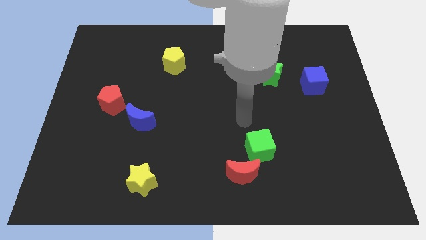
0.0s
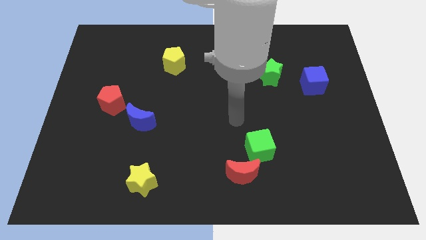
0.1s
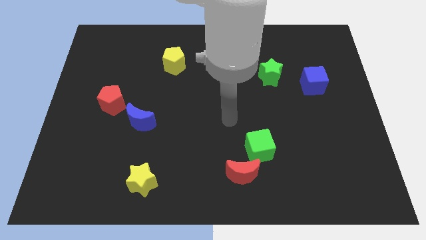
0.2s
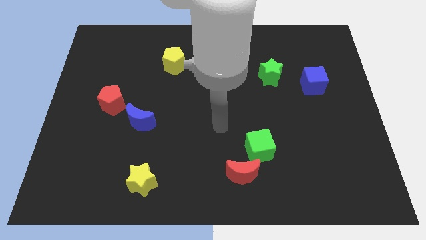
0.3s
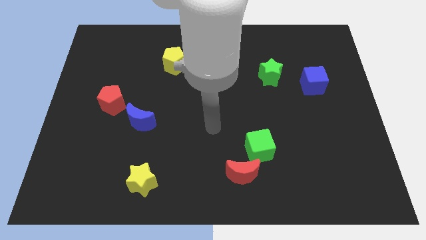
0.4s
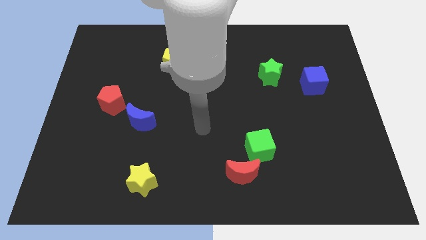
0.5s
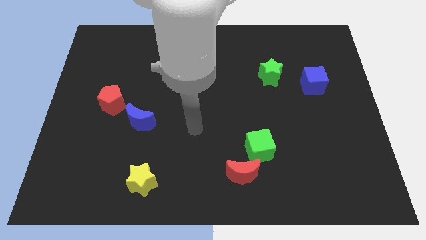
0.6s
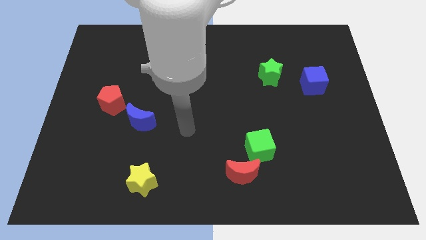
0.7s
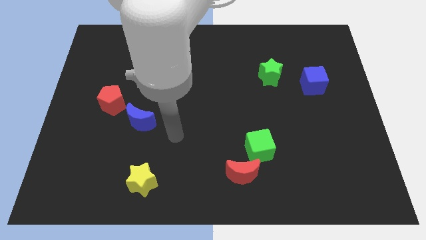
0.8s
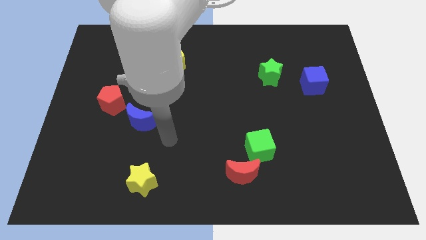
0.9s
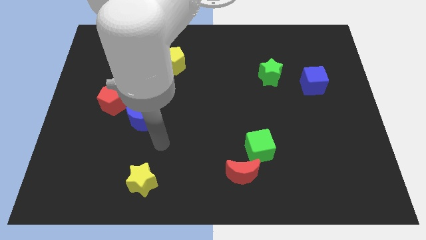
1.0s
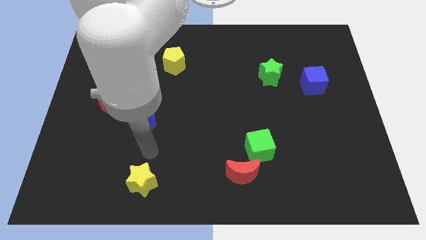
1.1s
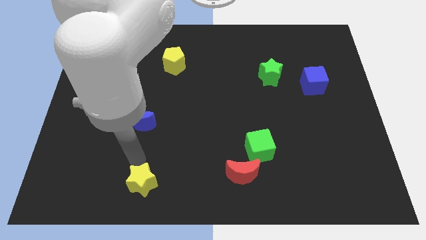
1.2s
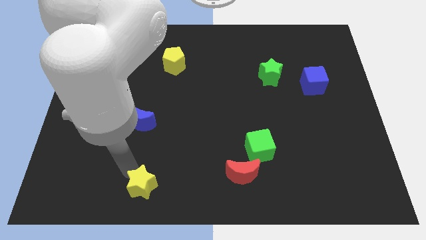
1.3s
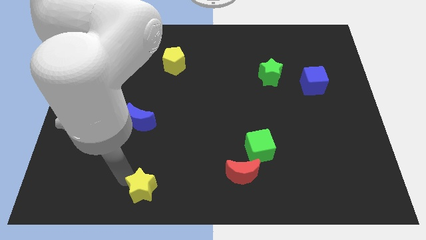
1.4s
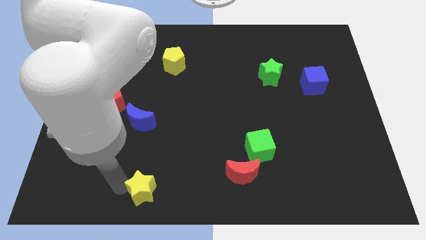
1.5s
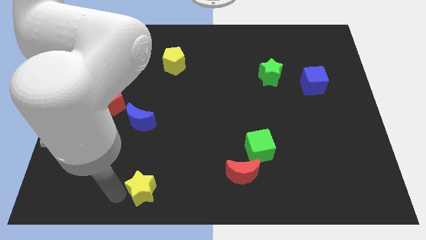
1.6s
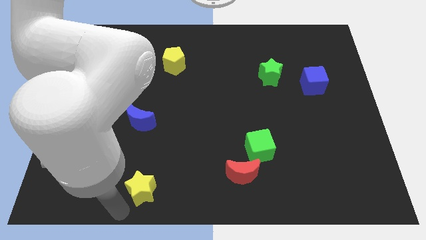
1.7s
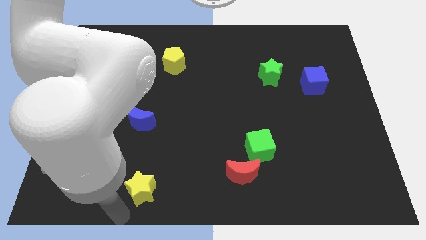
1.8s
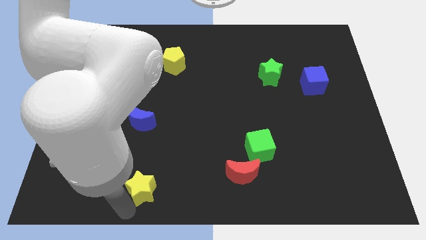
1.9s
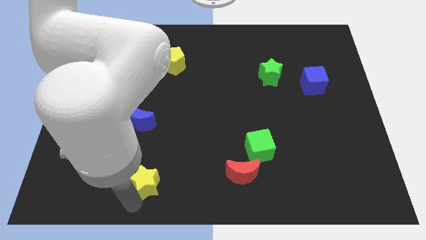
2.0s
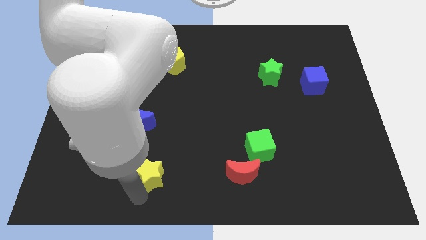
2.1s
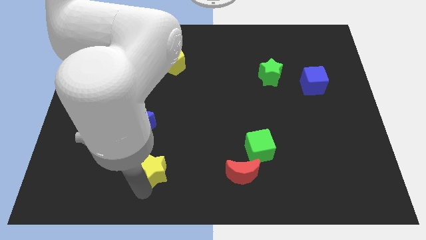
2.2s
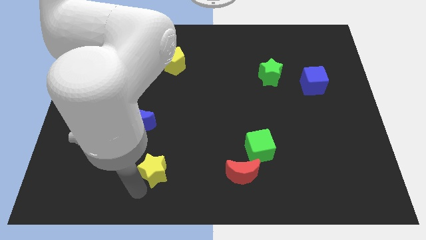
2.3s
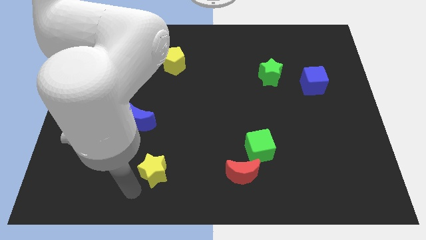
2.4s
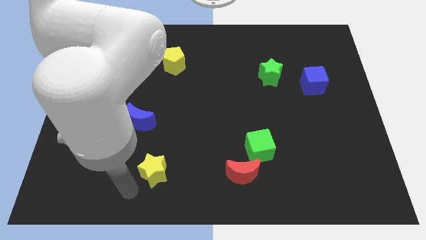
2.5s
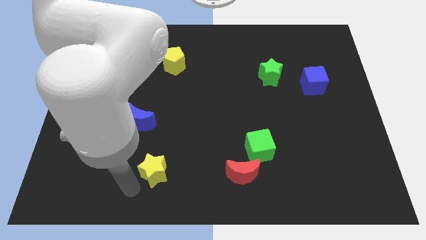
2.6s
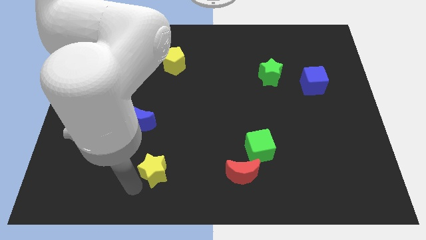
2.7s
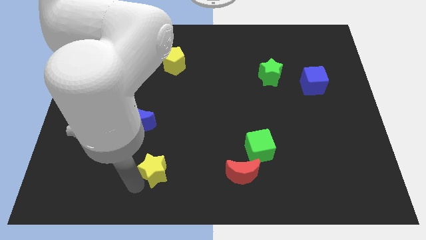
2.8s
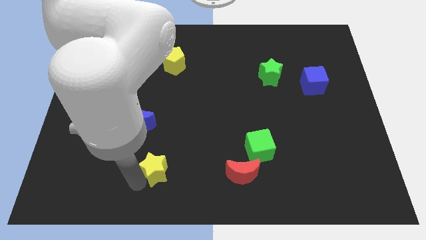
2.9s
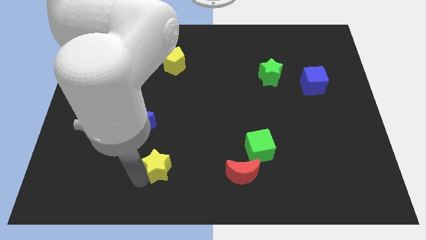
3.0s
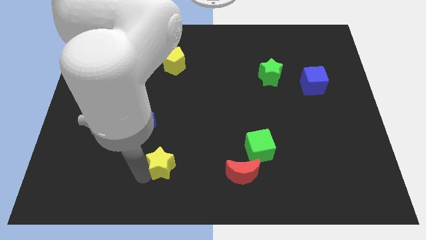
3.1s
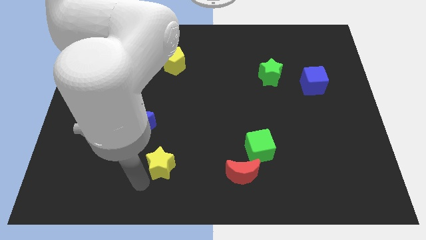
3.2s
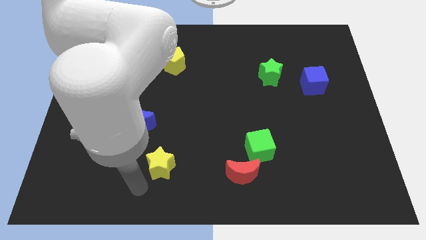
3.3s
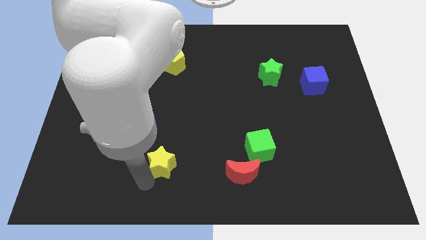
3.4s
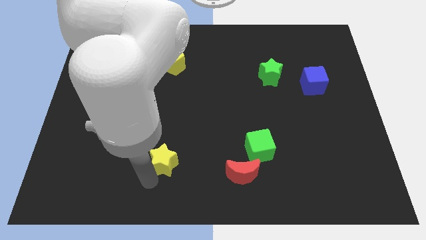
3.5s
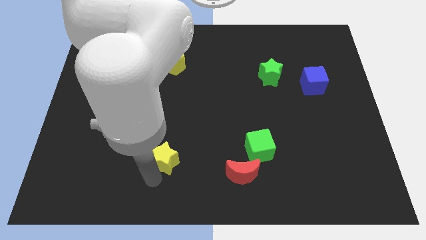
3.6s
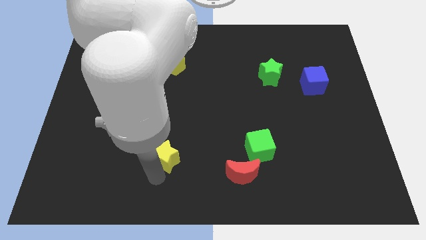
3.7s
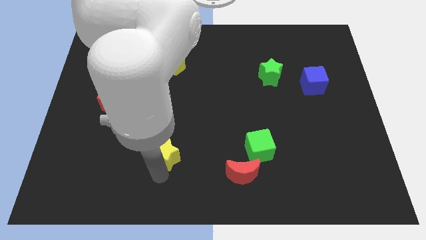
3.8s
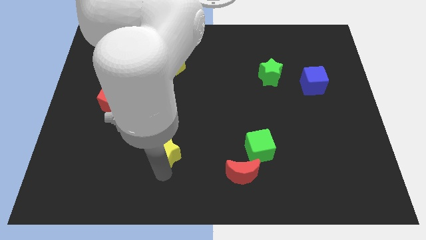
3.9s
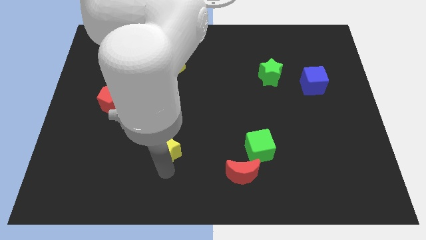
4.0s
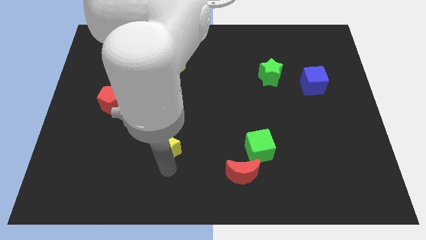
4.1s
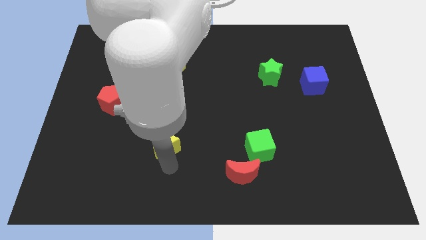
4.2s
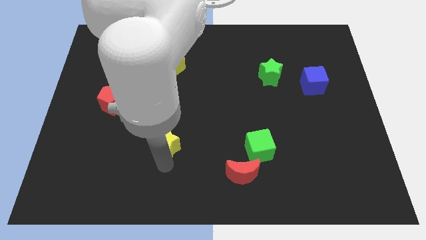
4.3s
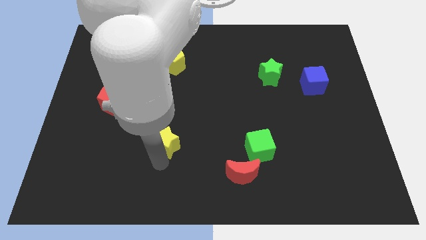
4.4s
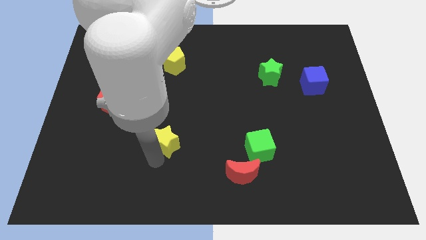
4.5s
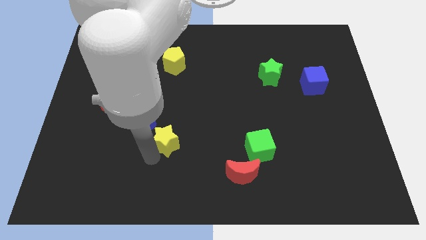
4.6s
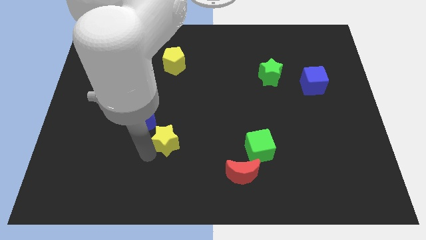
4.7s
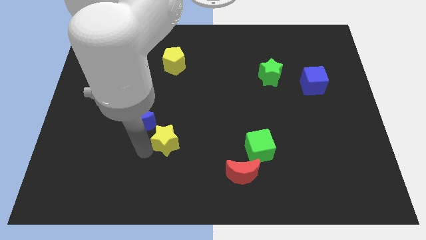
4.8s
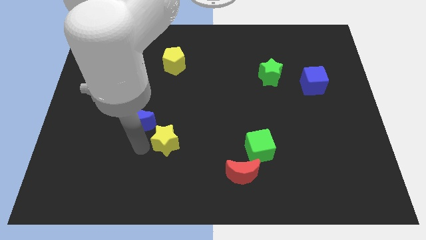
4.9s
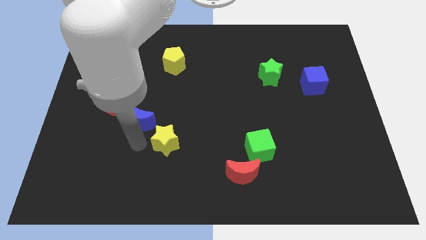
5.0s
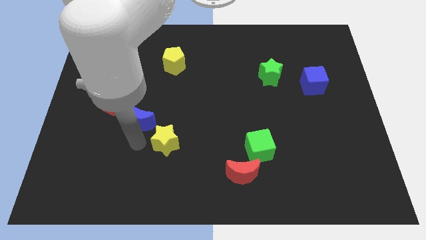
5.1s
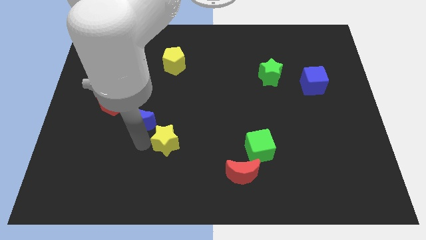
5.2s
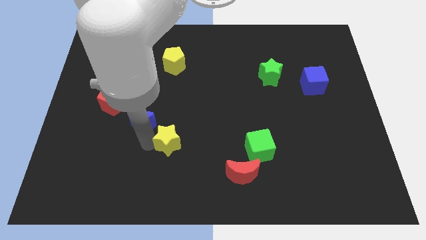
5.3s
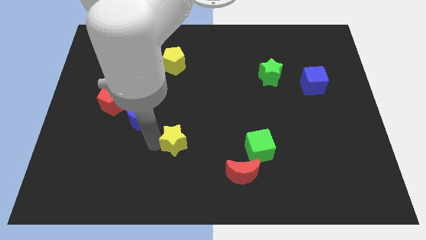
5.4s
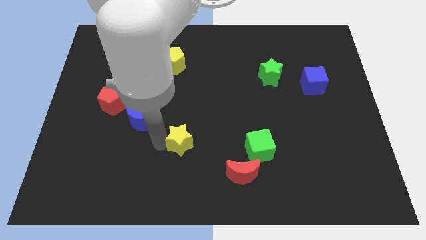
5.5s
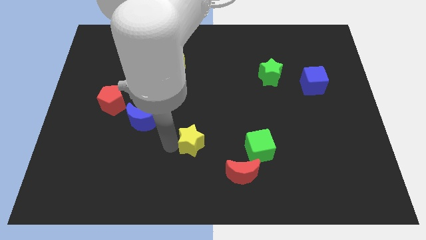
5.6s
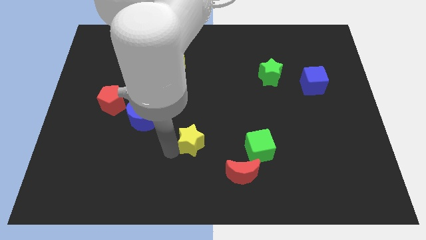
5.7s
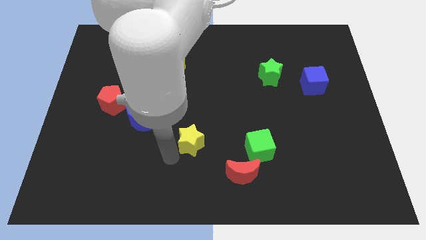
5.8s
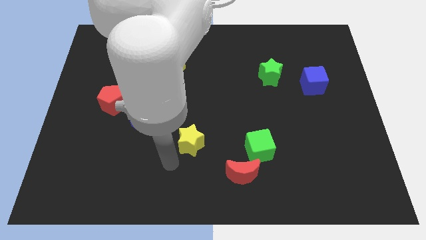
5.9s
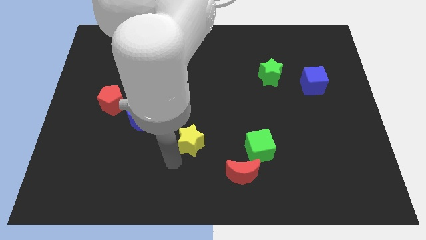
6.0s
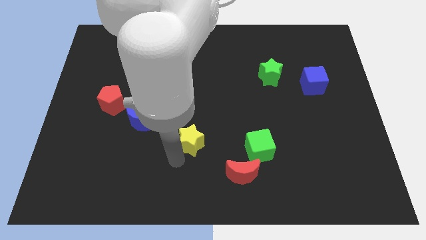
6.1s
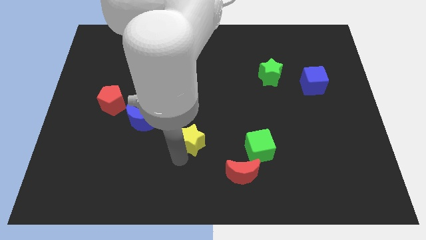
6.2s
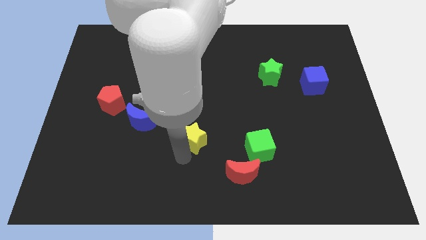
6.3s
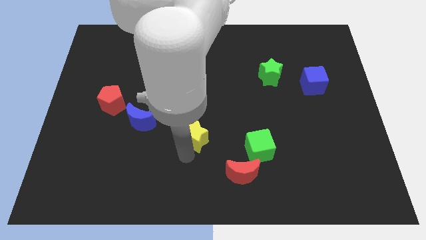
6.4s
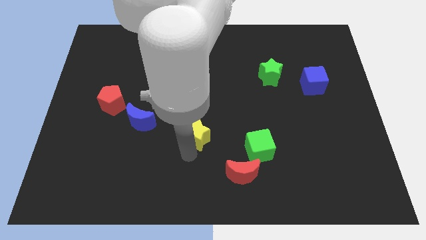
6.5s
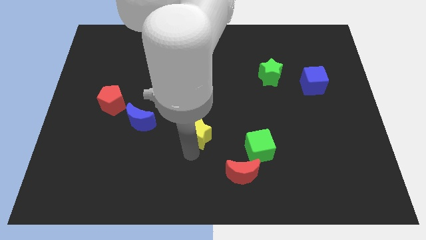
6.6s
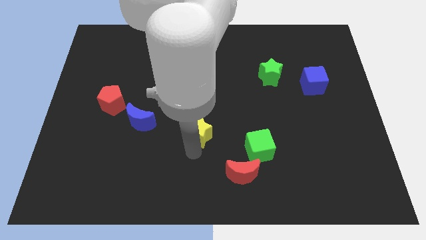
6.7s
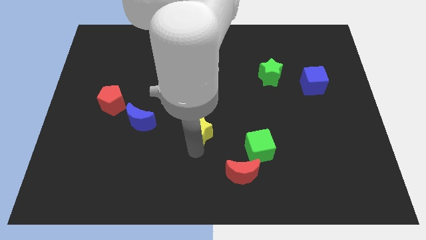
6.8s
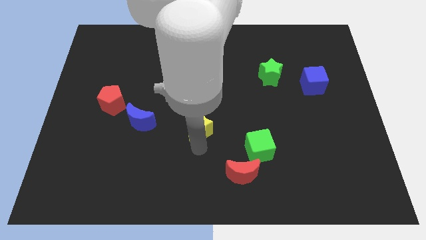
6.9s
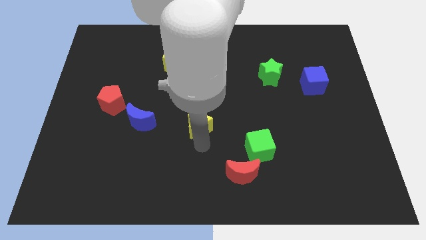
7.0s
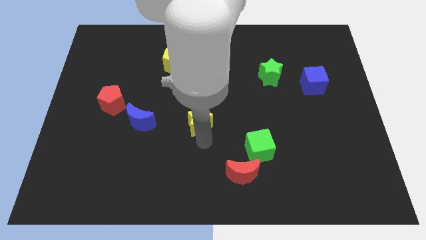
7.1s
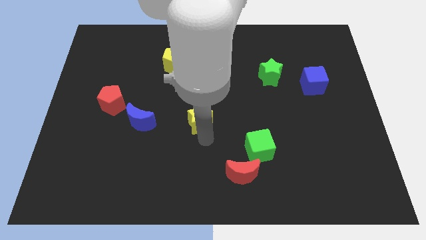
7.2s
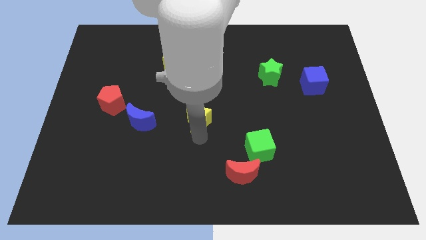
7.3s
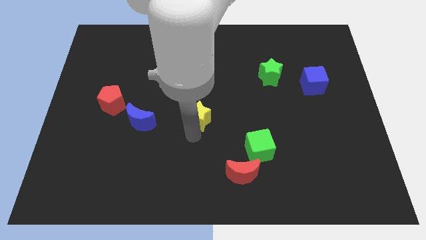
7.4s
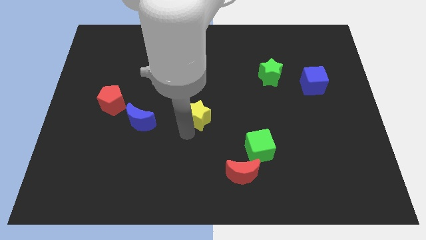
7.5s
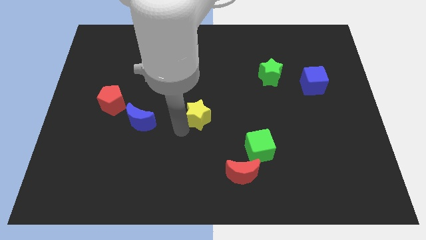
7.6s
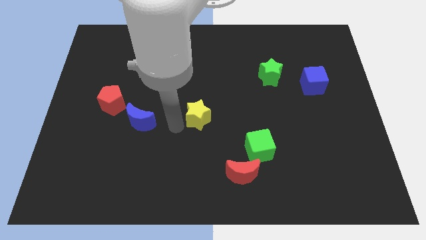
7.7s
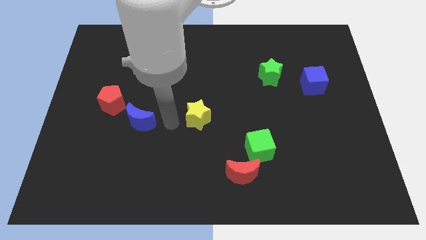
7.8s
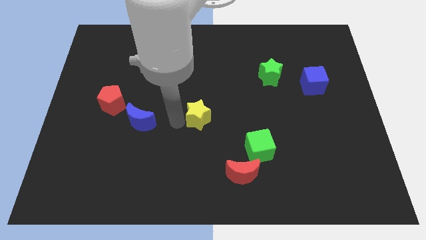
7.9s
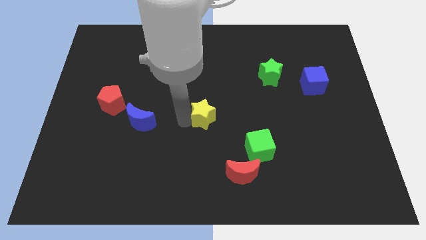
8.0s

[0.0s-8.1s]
slide the yellow star diagonally up and to the right

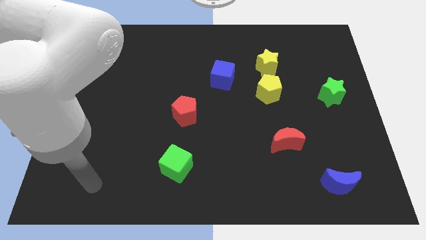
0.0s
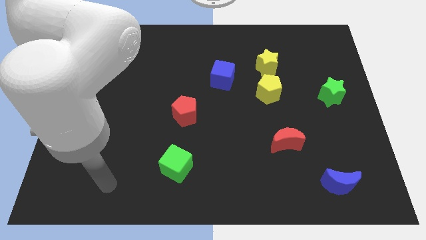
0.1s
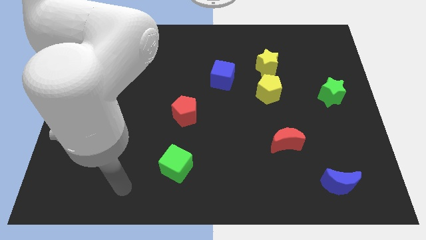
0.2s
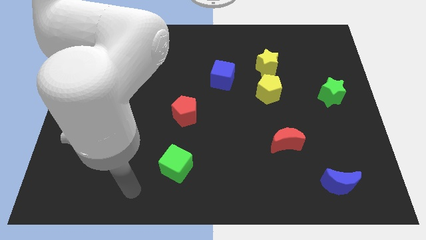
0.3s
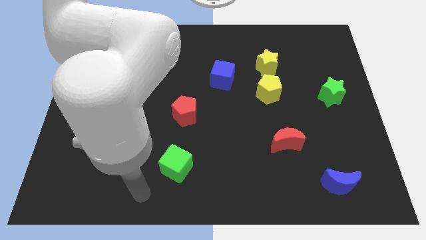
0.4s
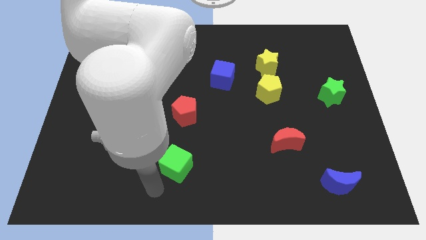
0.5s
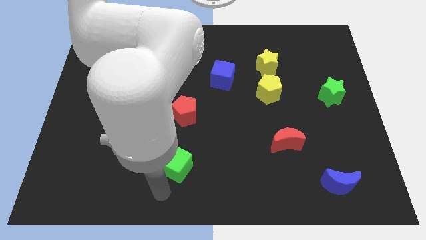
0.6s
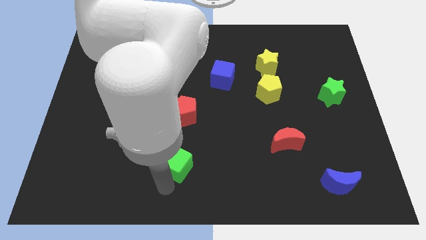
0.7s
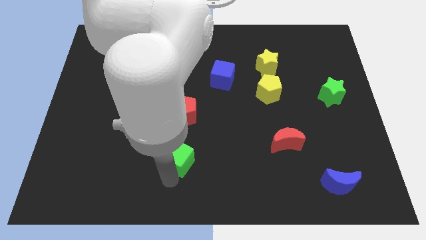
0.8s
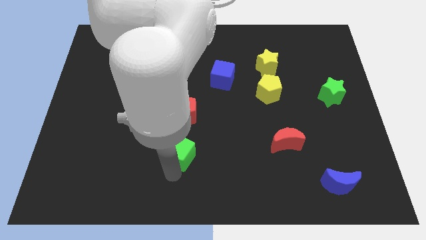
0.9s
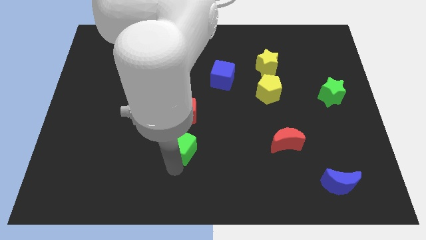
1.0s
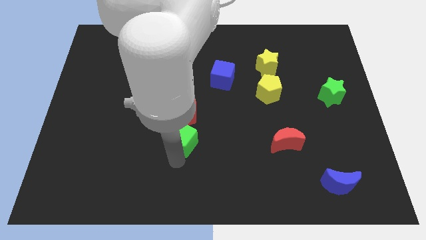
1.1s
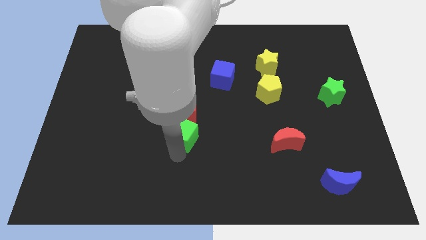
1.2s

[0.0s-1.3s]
slightly push the green cube up
